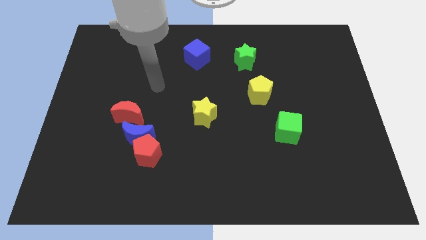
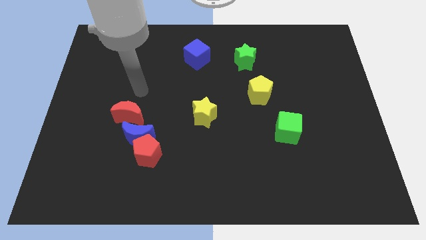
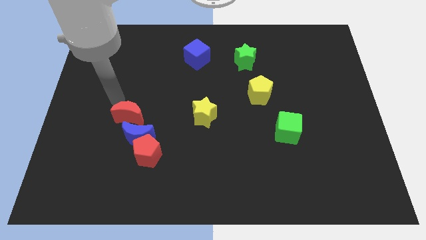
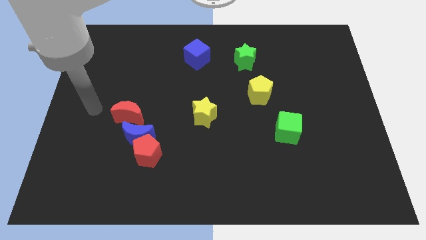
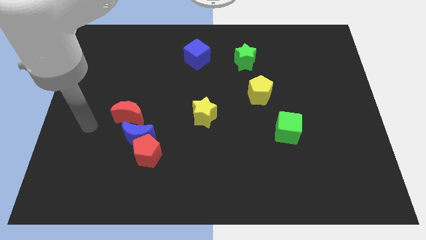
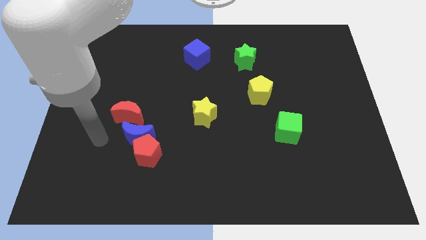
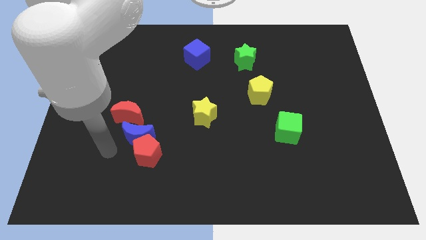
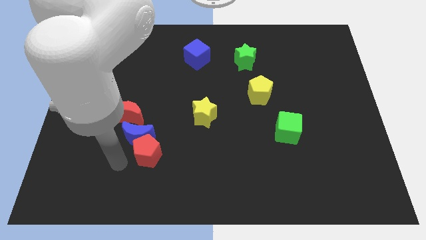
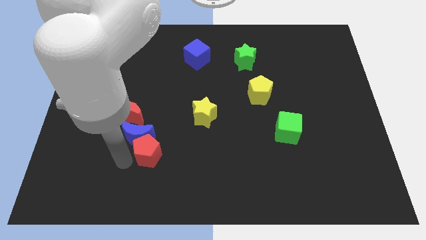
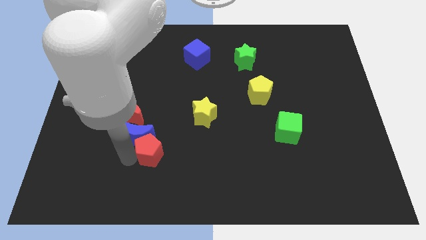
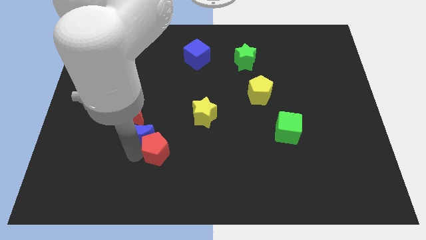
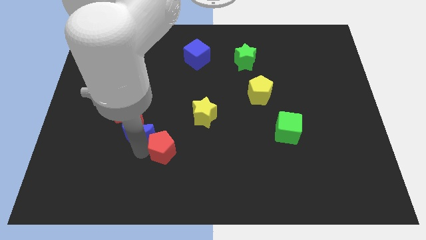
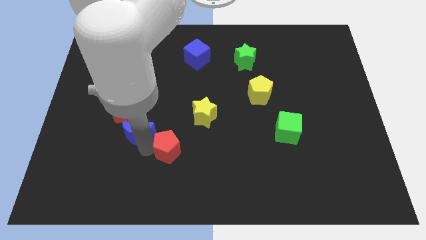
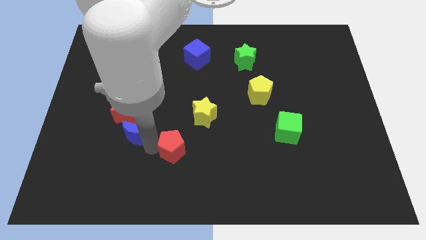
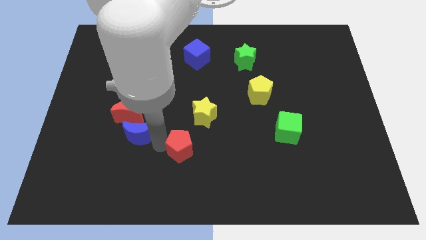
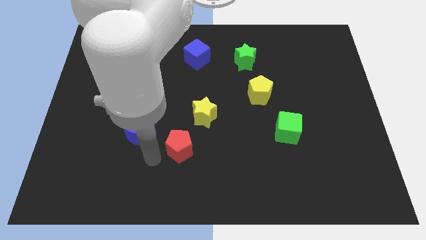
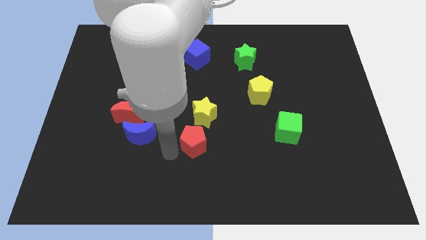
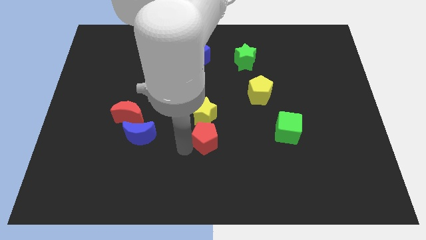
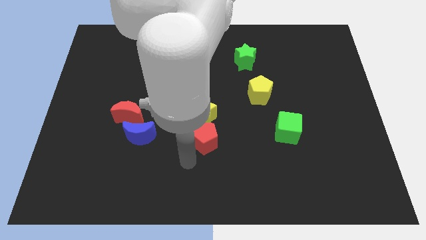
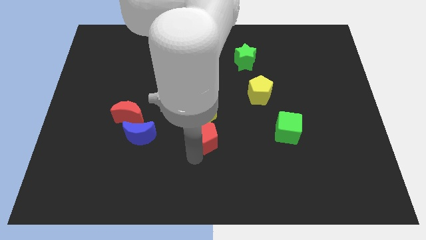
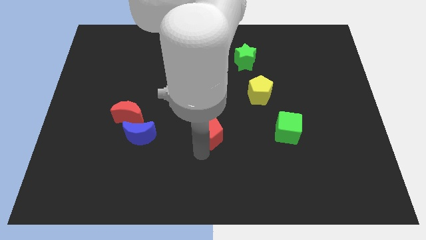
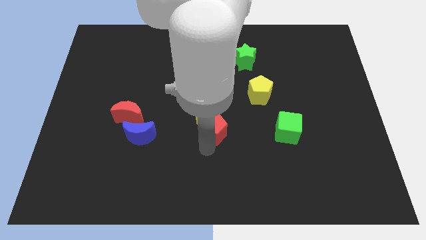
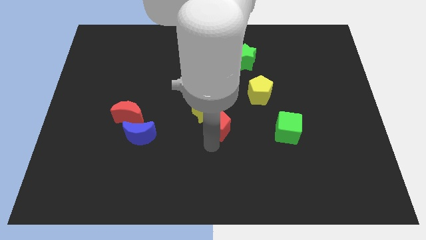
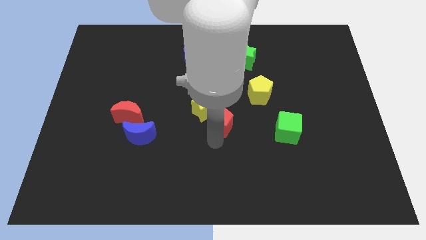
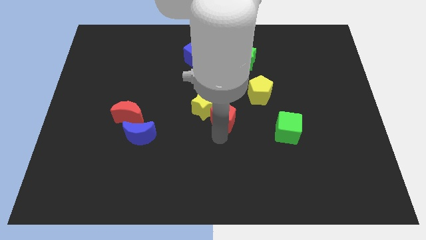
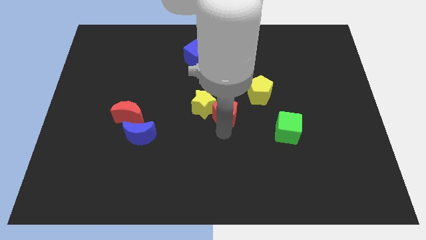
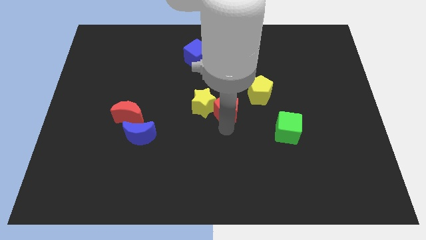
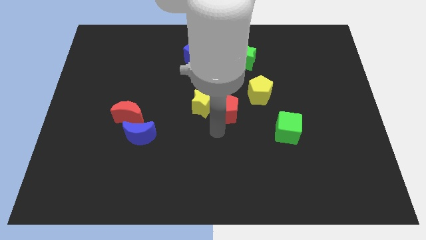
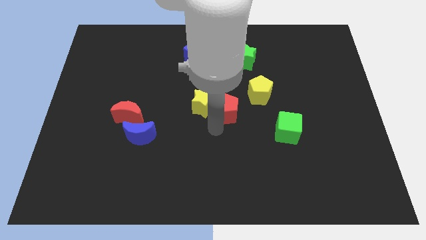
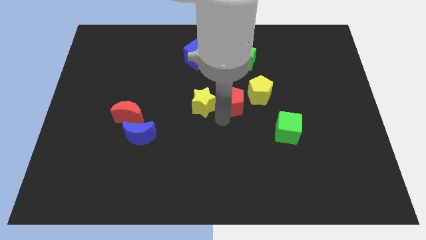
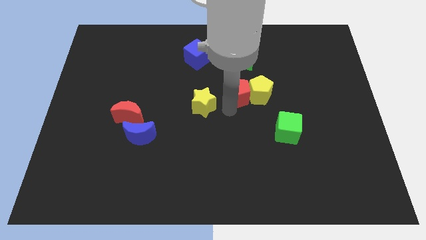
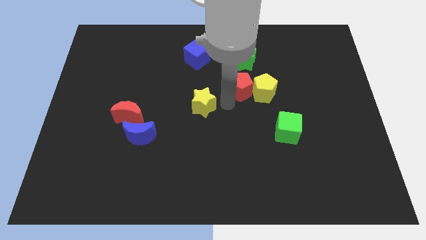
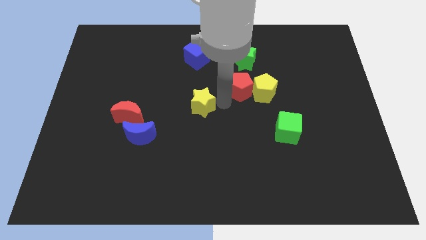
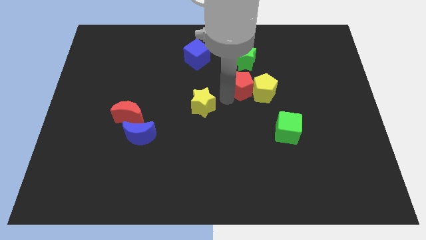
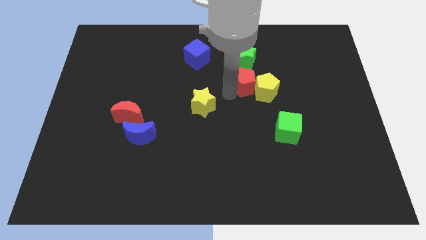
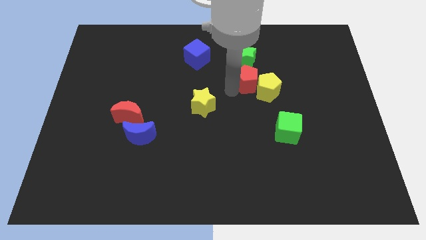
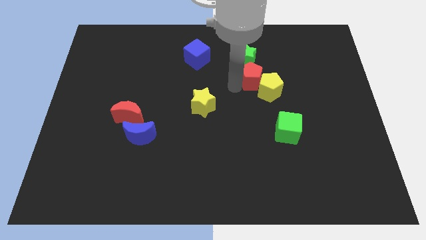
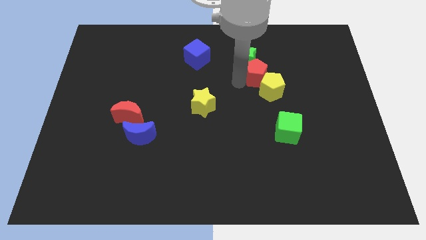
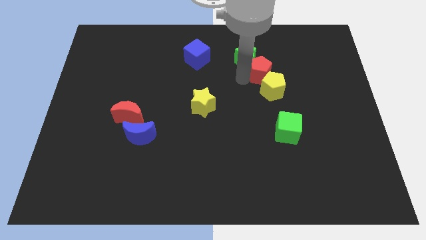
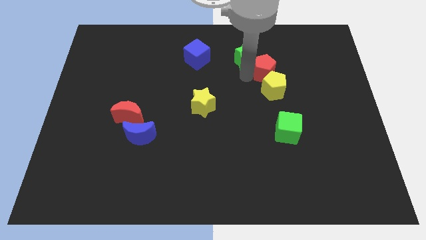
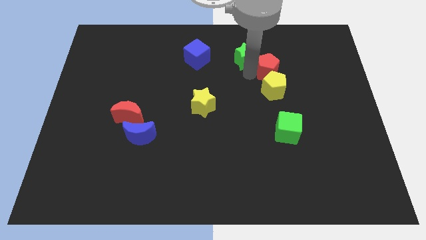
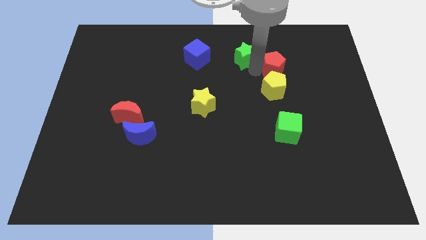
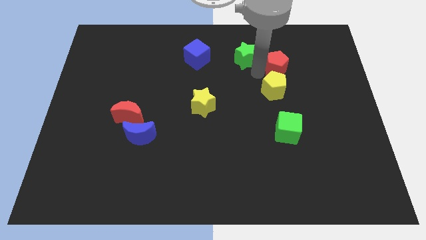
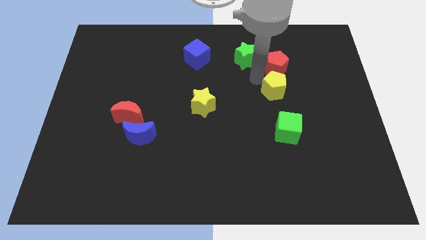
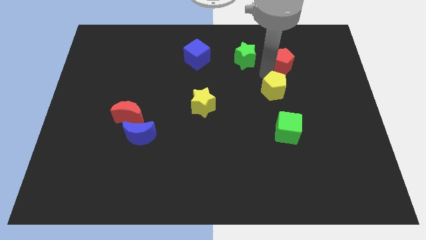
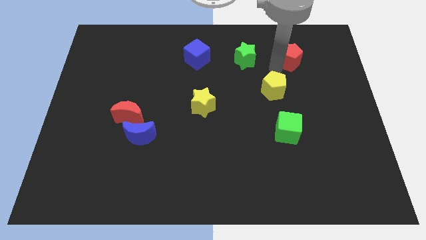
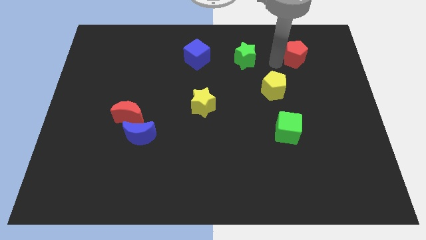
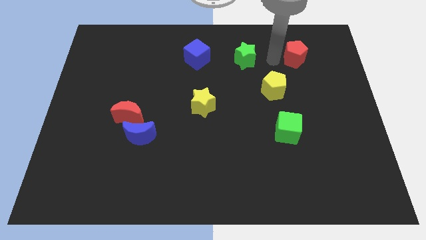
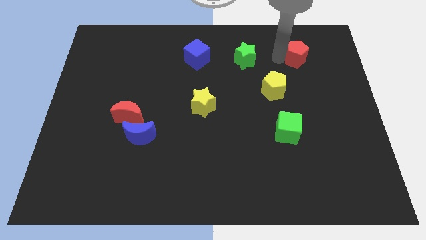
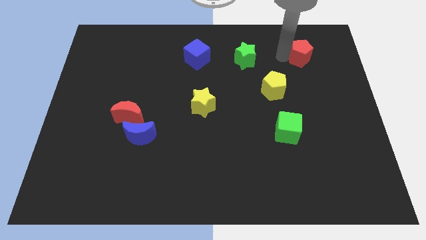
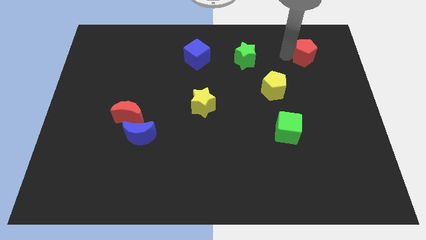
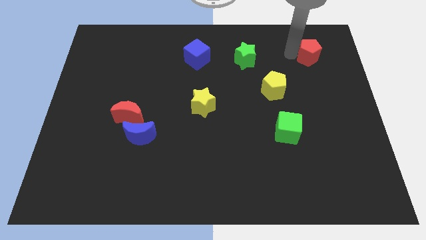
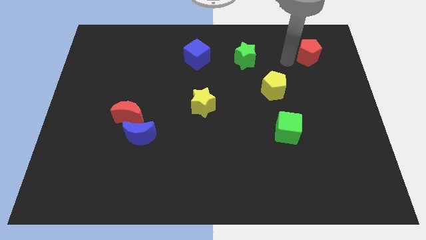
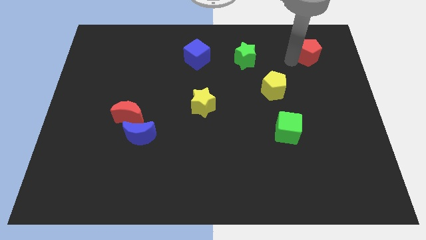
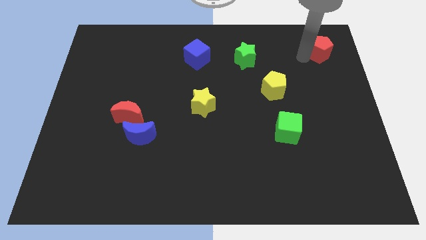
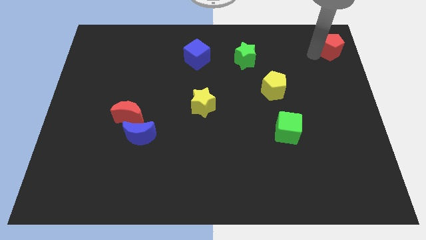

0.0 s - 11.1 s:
put the red pentagon to the top right
